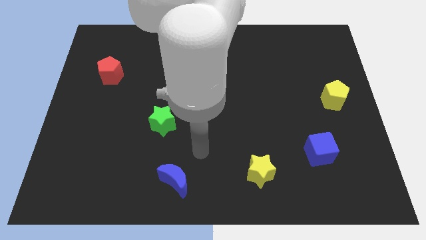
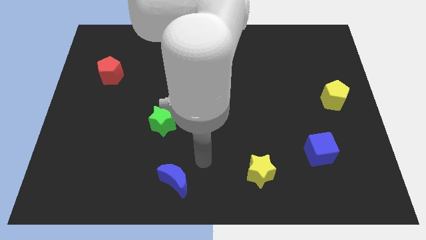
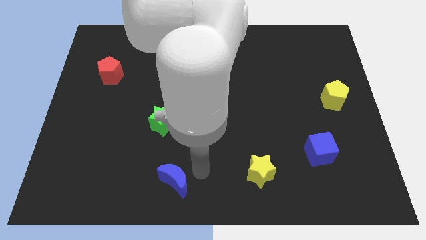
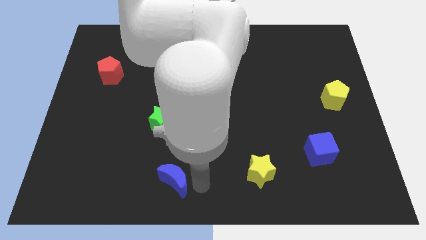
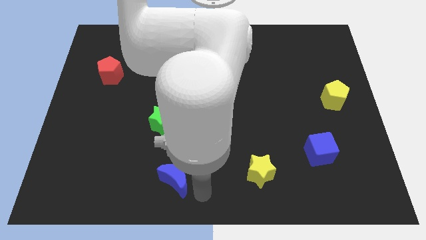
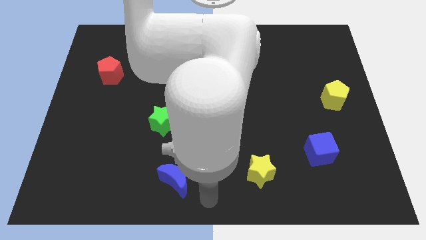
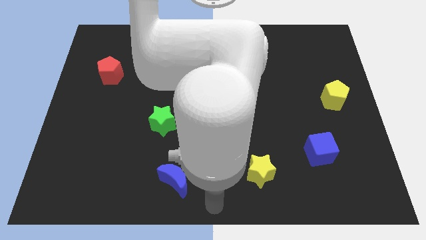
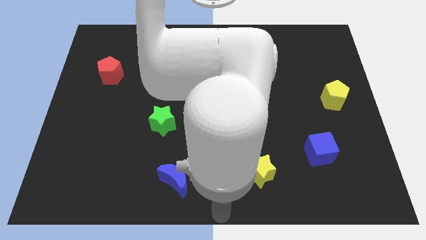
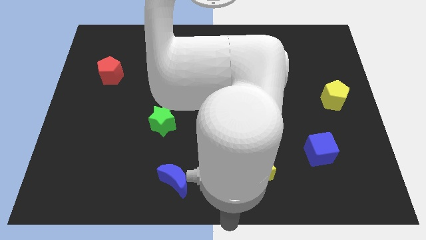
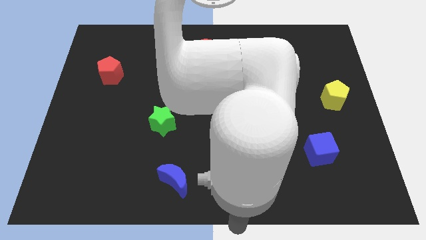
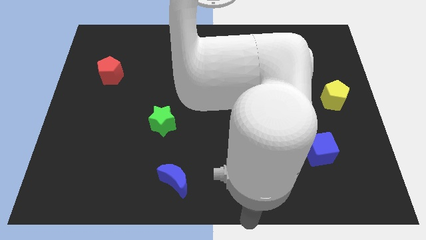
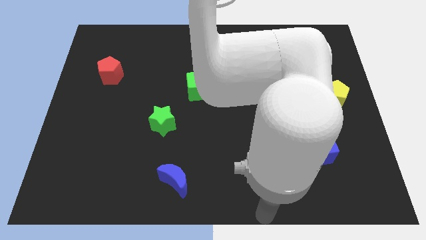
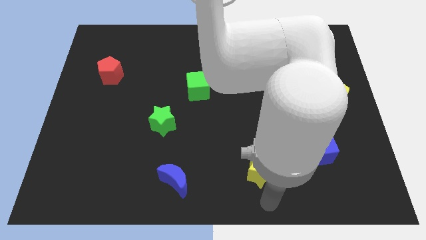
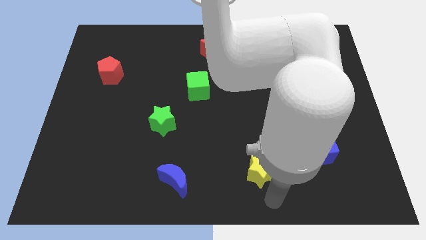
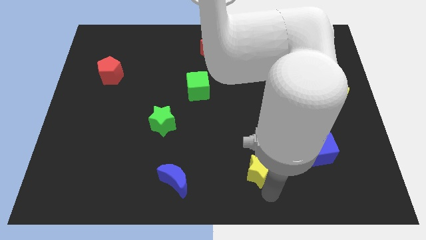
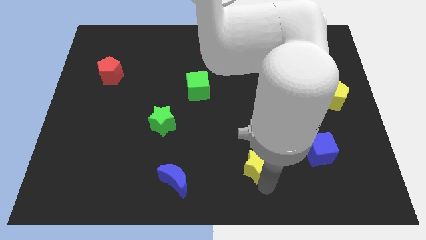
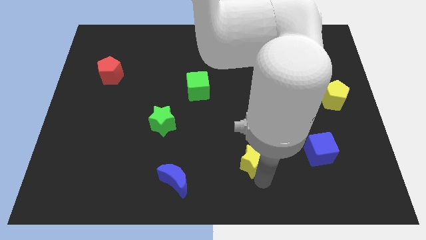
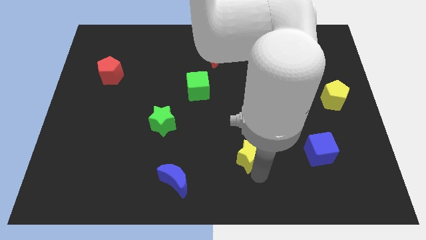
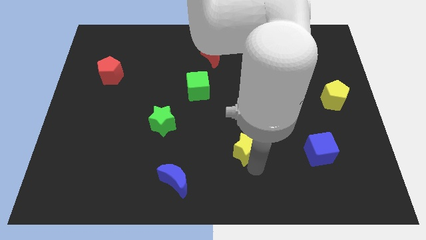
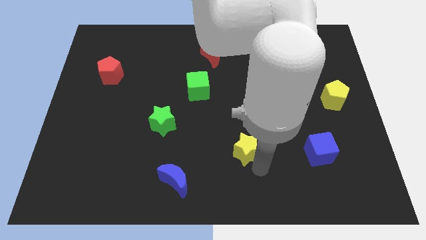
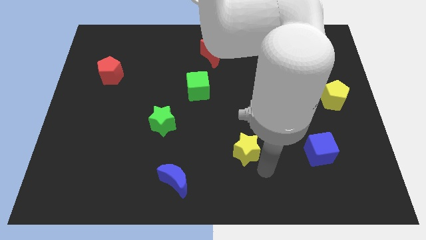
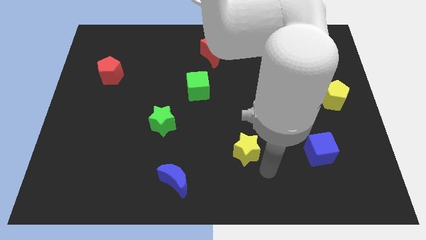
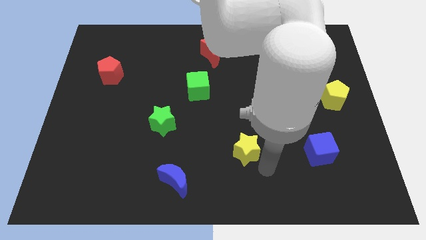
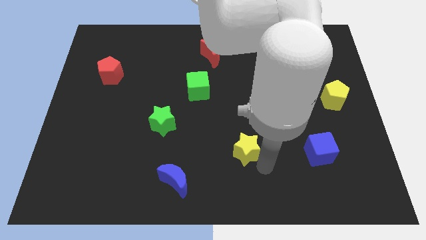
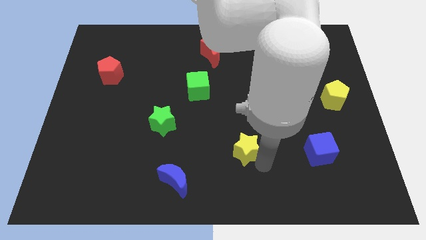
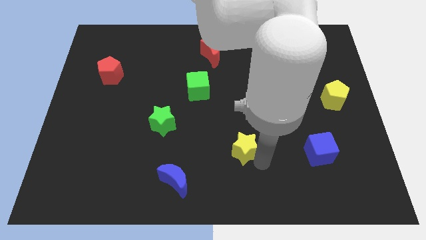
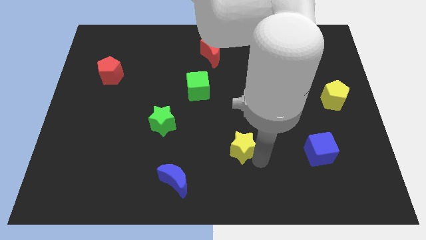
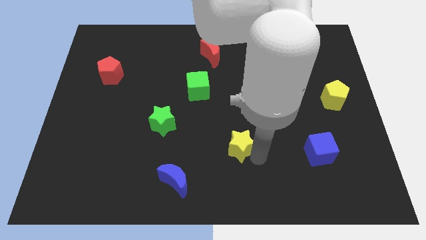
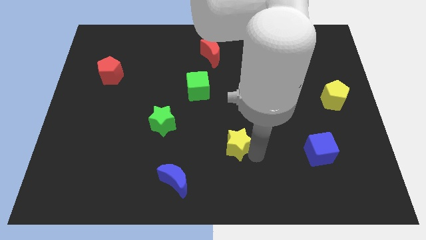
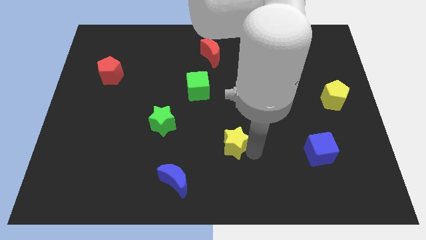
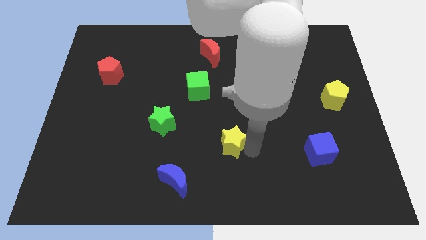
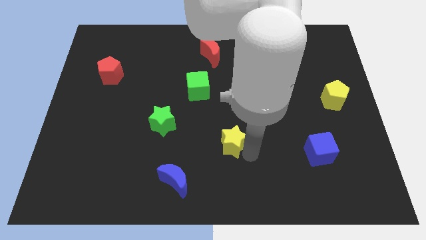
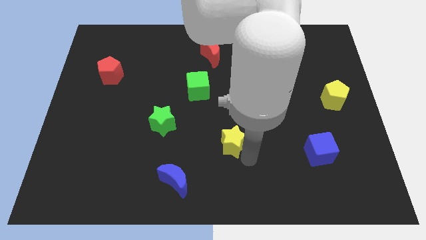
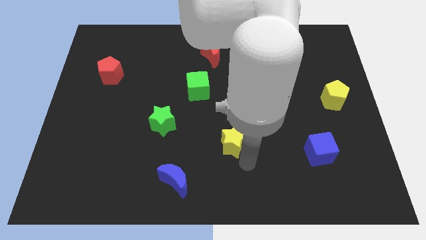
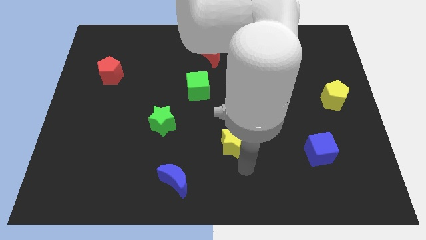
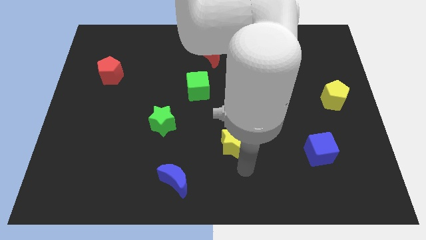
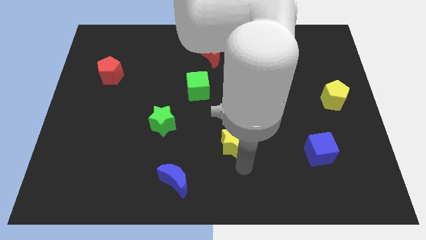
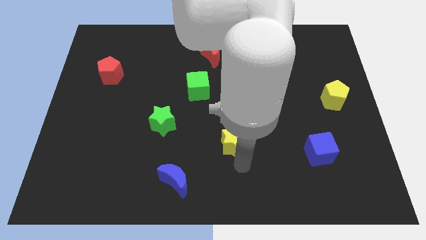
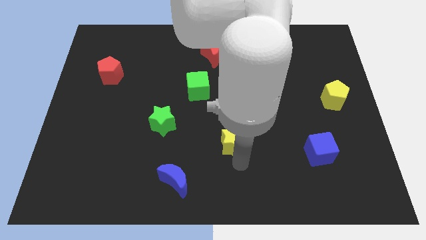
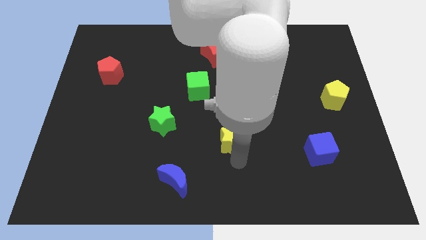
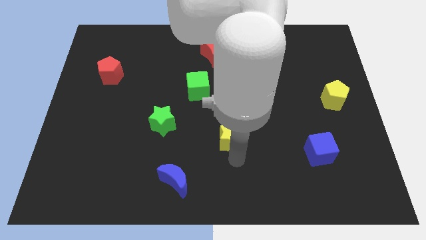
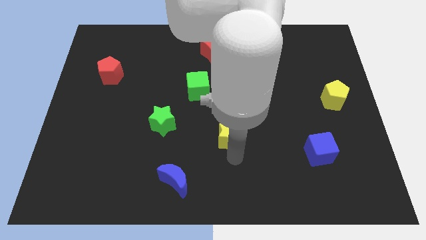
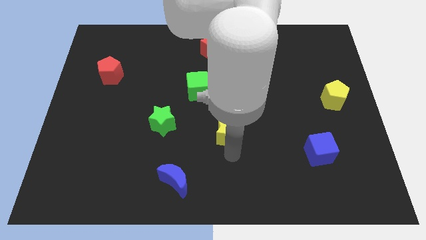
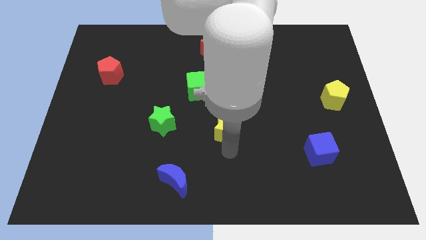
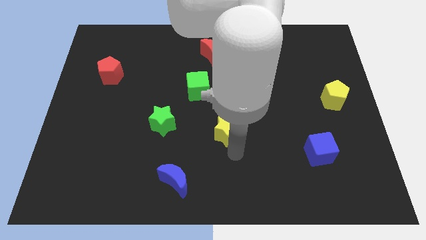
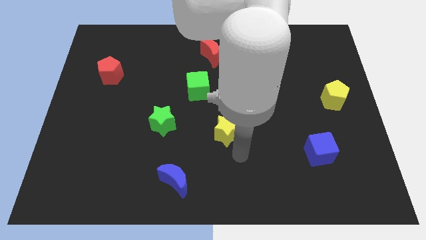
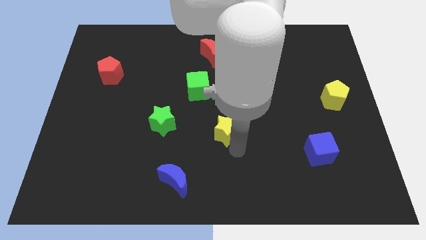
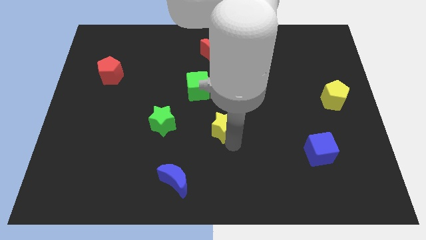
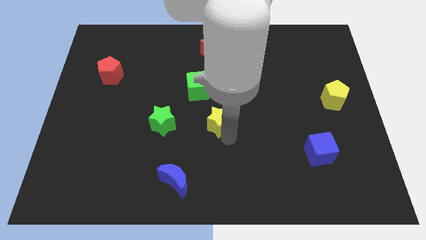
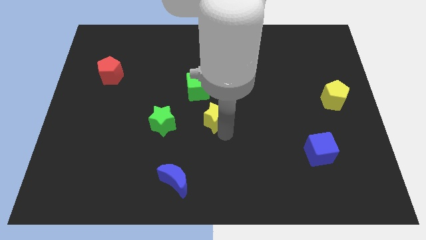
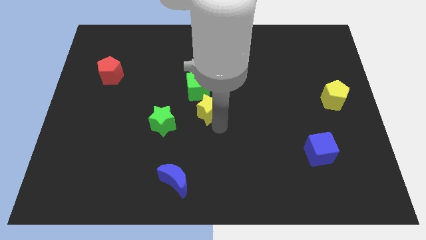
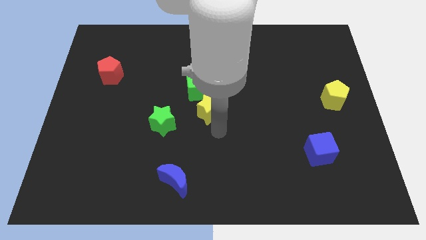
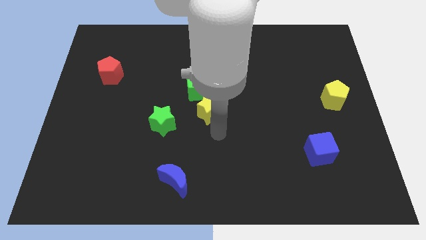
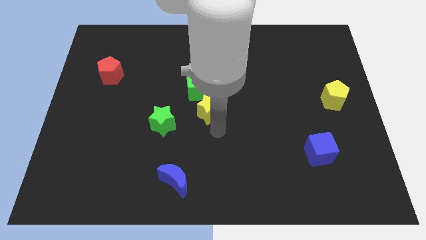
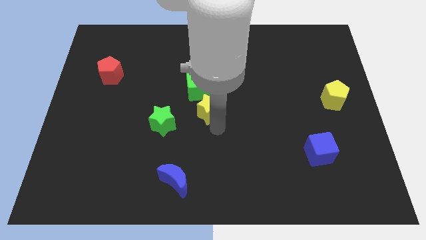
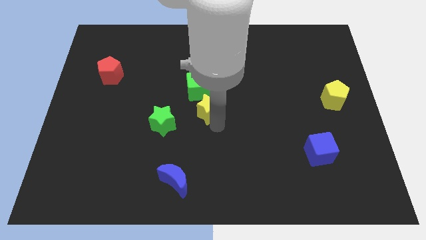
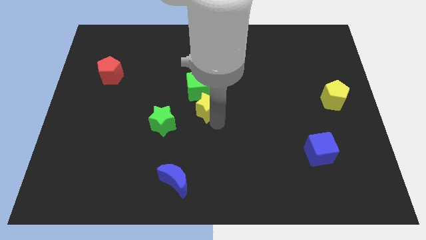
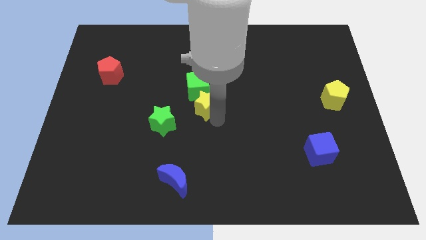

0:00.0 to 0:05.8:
move the yellow star towards the green cube

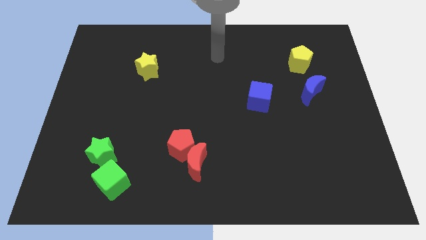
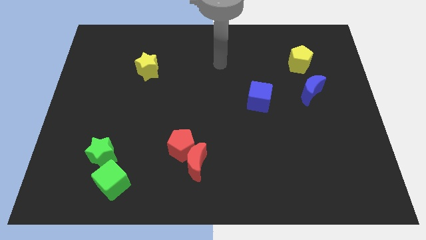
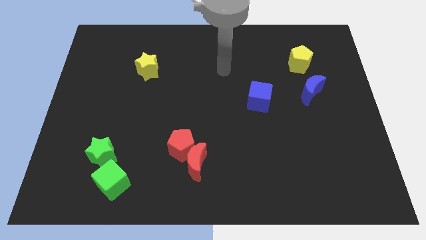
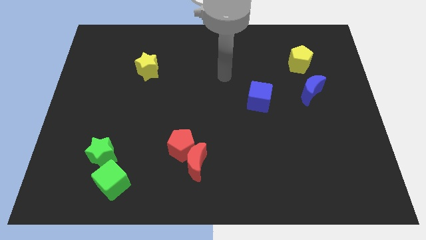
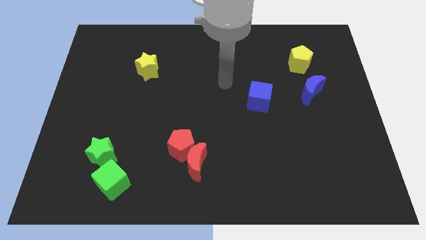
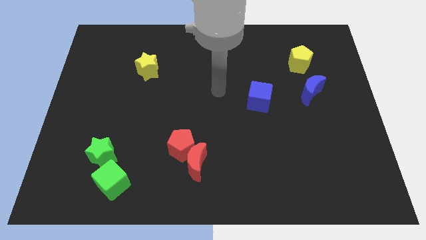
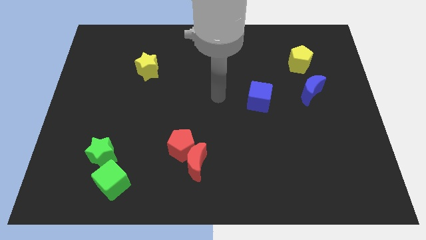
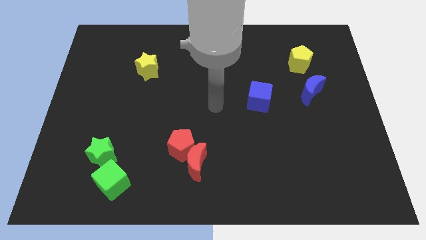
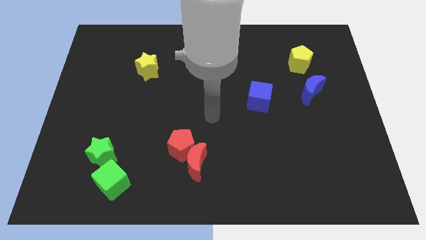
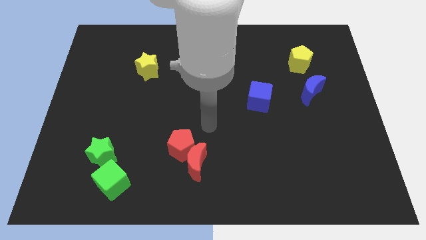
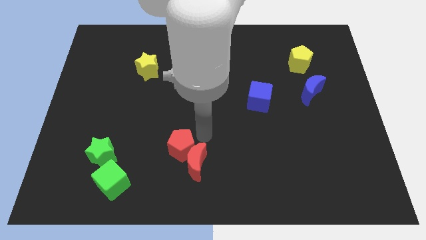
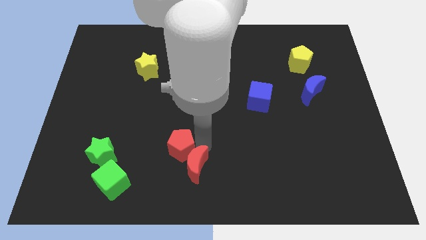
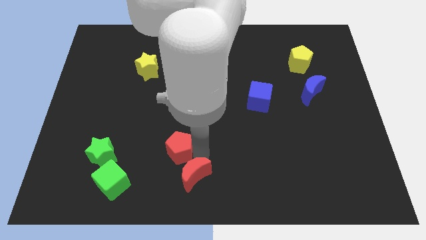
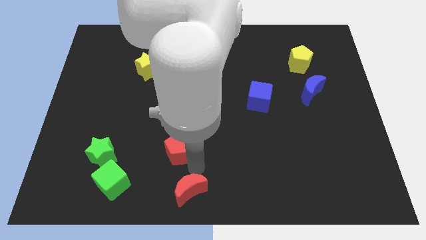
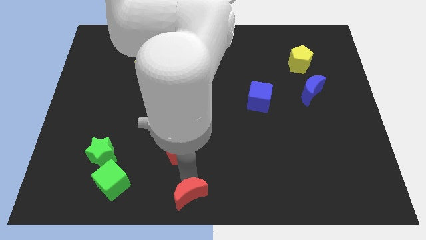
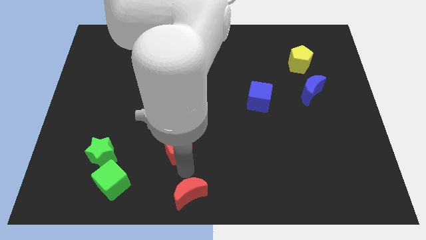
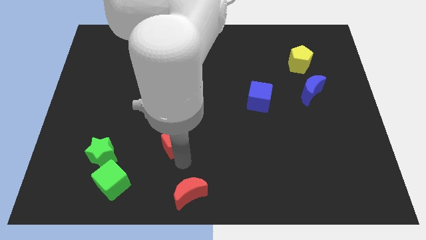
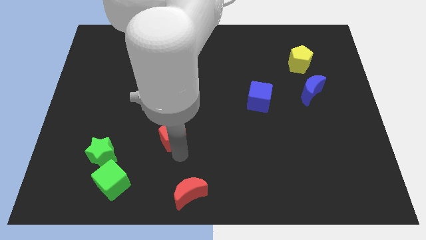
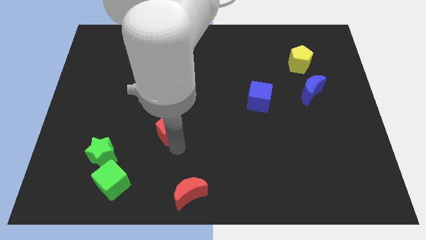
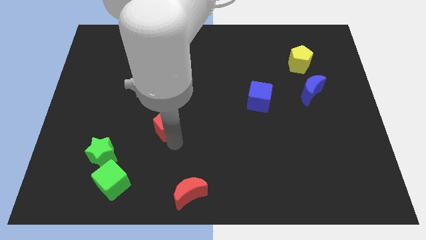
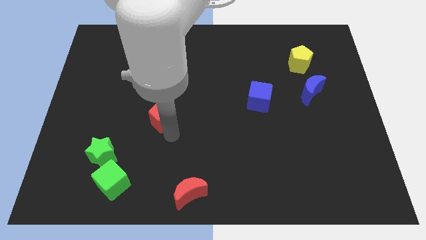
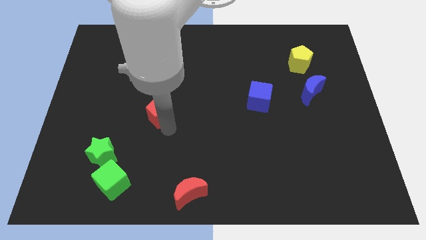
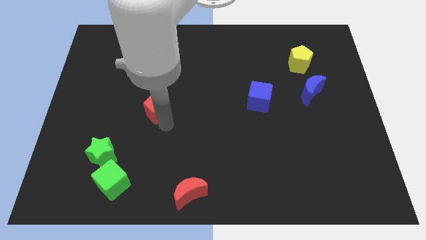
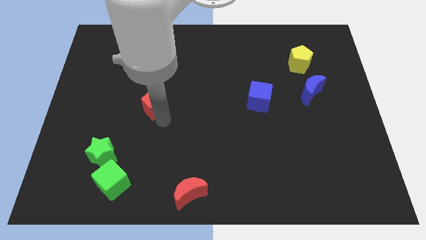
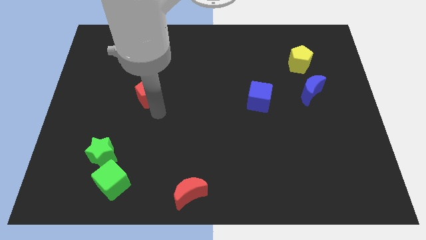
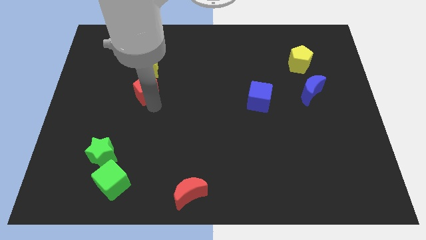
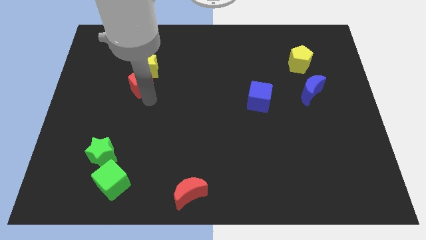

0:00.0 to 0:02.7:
push the red pentagon to the yellow star
